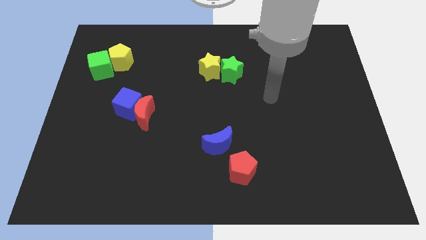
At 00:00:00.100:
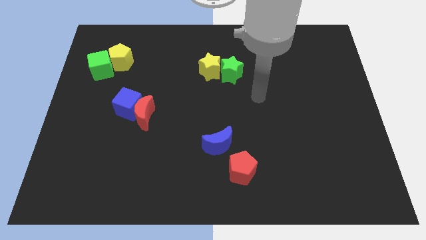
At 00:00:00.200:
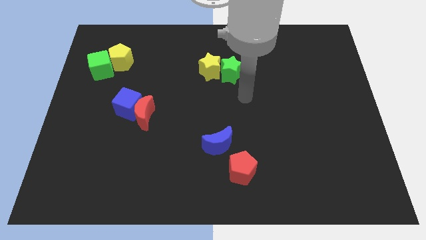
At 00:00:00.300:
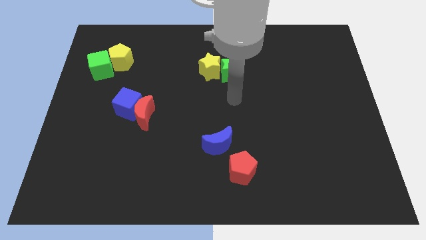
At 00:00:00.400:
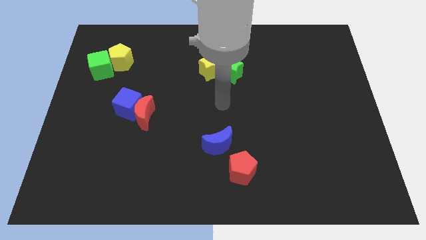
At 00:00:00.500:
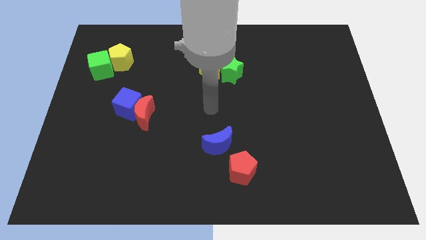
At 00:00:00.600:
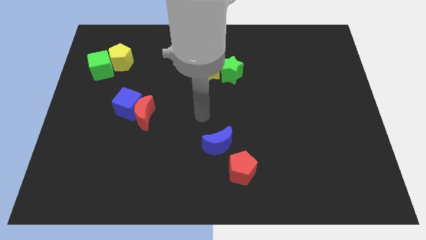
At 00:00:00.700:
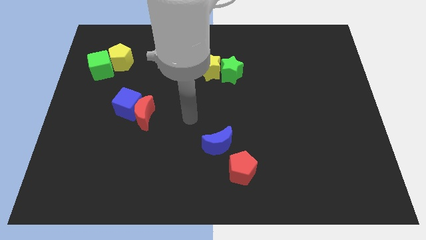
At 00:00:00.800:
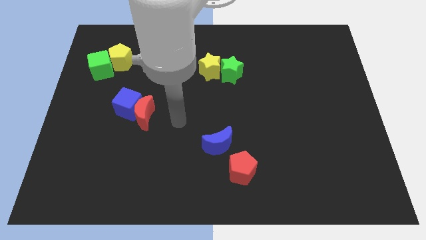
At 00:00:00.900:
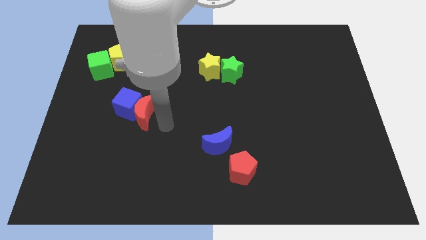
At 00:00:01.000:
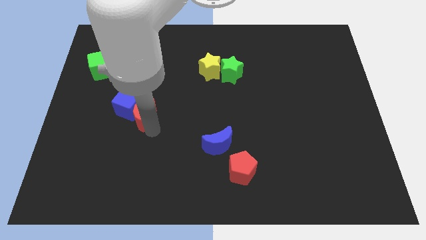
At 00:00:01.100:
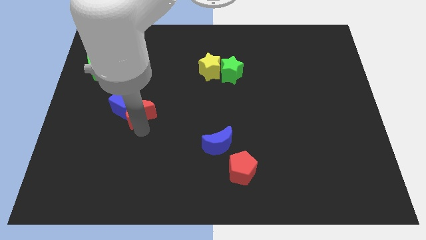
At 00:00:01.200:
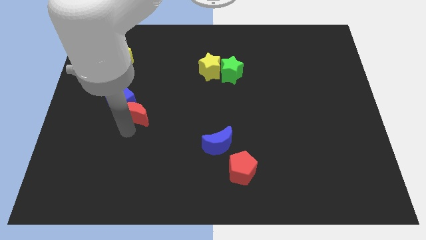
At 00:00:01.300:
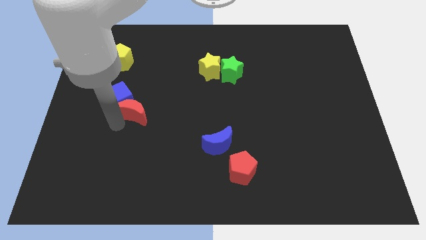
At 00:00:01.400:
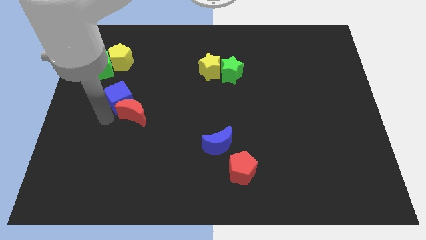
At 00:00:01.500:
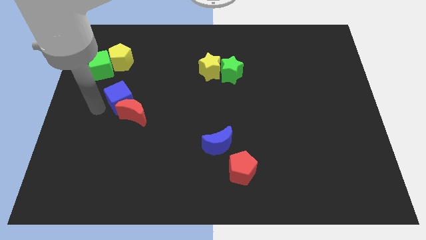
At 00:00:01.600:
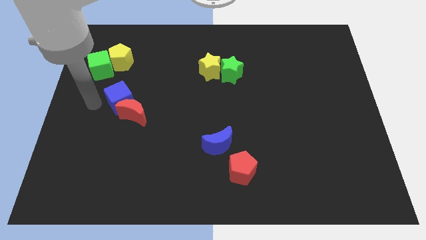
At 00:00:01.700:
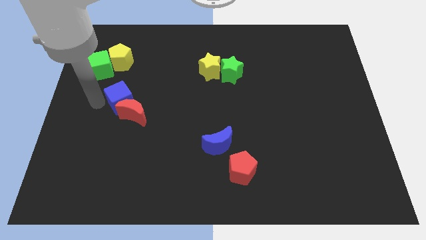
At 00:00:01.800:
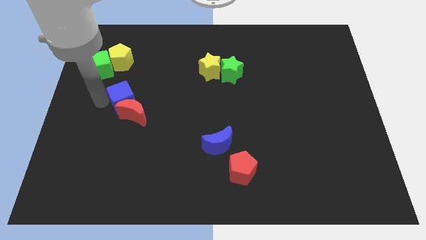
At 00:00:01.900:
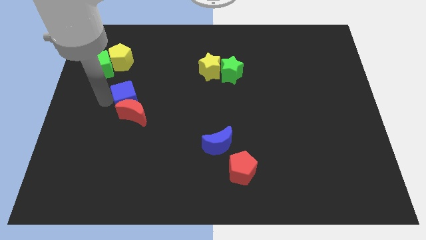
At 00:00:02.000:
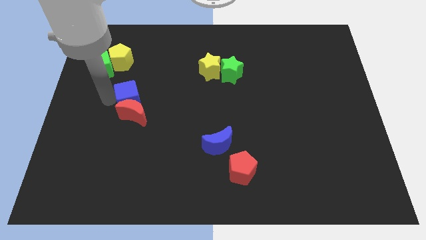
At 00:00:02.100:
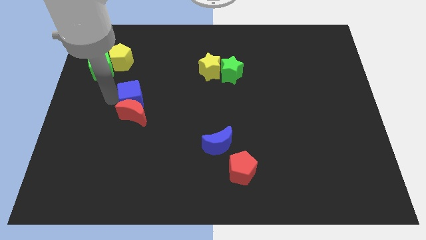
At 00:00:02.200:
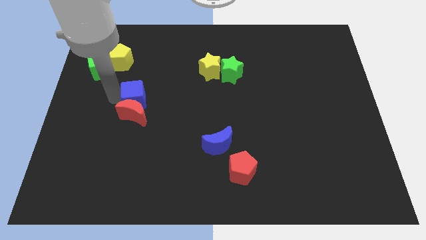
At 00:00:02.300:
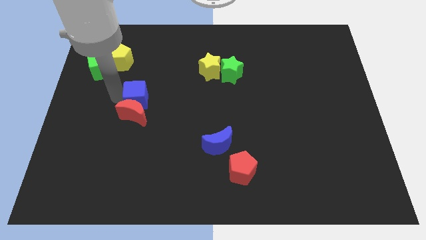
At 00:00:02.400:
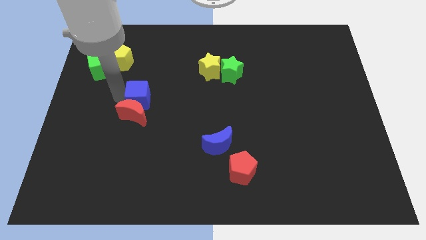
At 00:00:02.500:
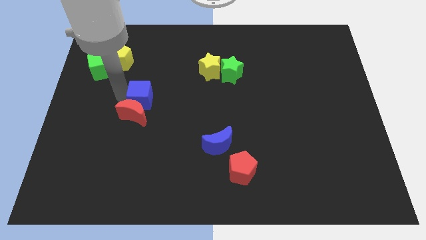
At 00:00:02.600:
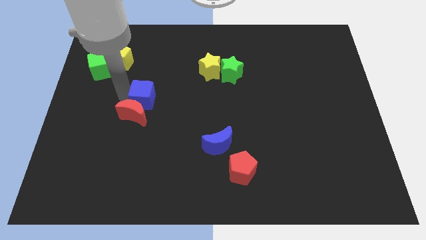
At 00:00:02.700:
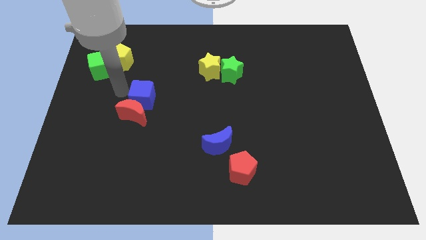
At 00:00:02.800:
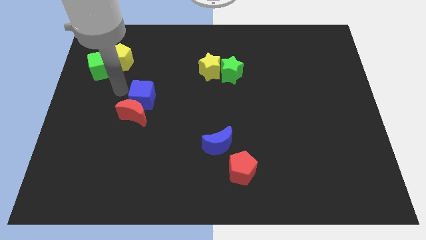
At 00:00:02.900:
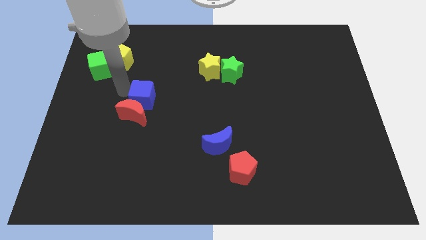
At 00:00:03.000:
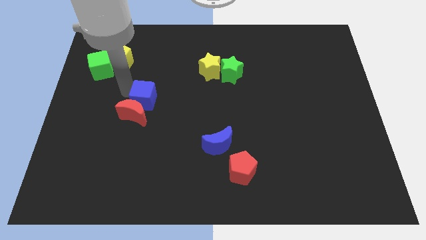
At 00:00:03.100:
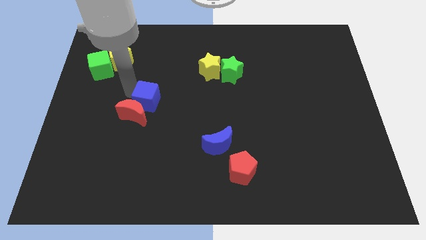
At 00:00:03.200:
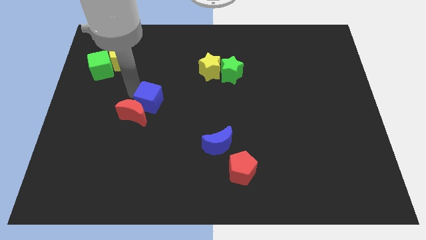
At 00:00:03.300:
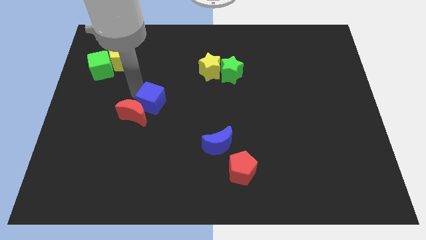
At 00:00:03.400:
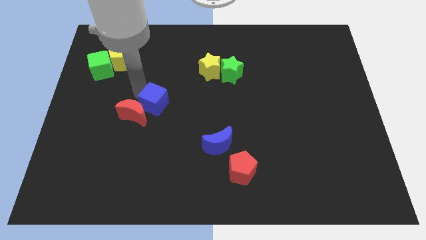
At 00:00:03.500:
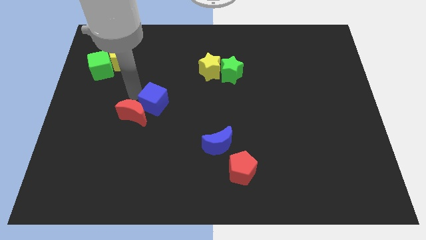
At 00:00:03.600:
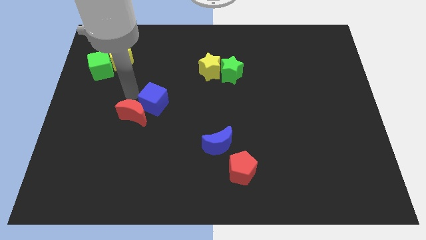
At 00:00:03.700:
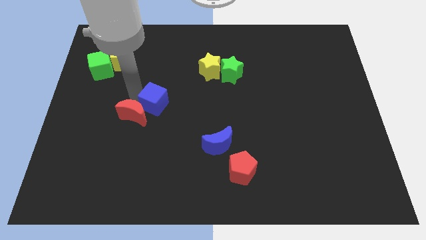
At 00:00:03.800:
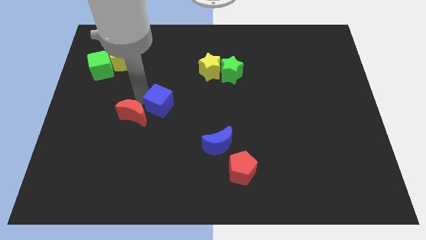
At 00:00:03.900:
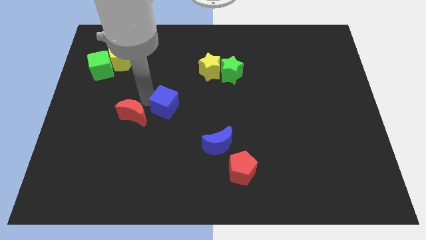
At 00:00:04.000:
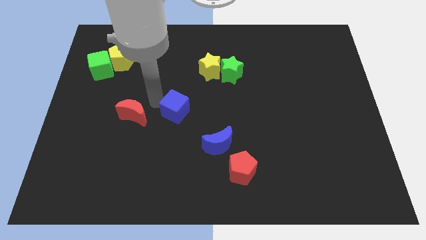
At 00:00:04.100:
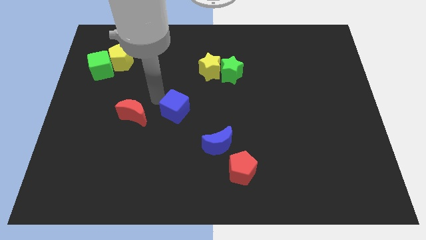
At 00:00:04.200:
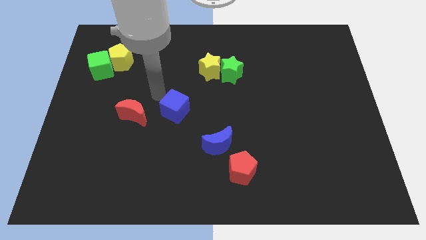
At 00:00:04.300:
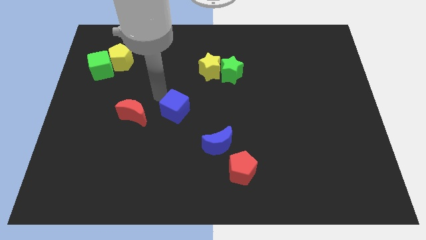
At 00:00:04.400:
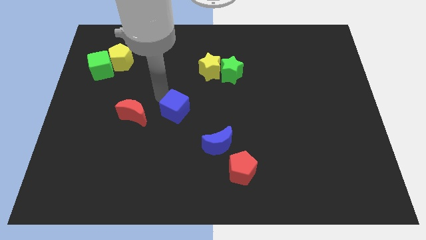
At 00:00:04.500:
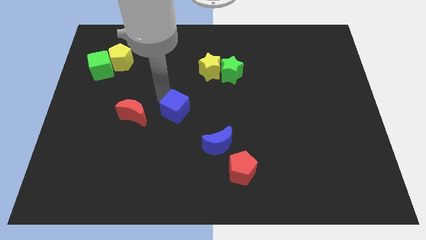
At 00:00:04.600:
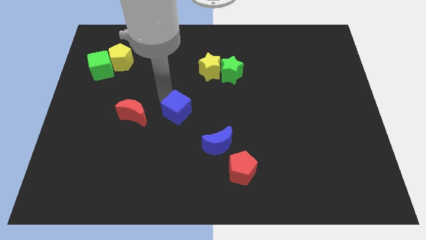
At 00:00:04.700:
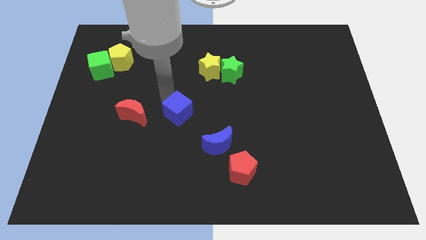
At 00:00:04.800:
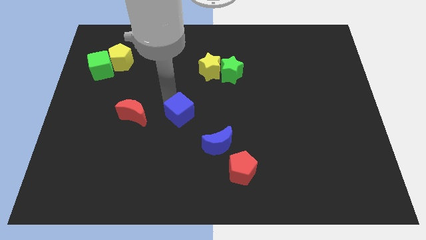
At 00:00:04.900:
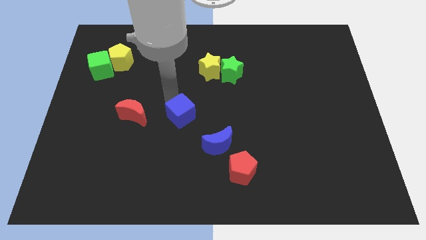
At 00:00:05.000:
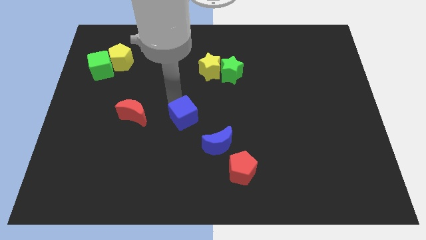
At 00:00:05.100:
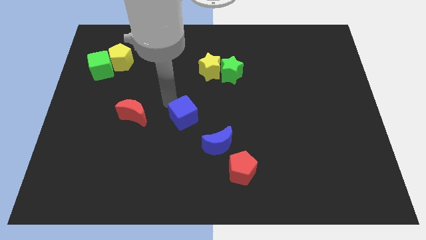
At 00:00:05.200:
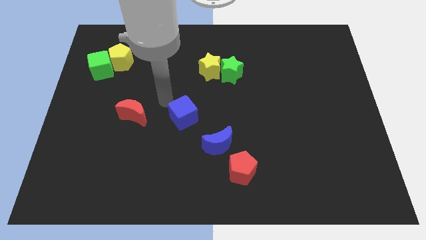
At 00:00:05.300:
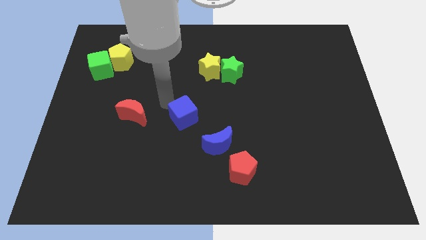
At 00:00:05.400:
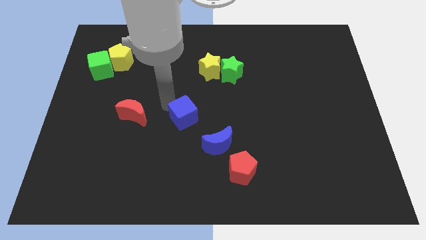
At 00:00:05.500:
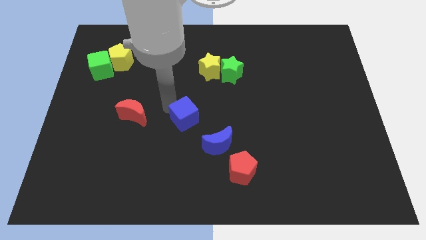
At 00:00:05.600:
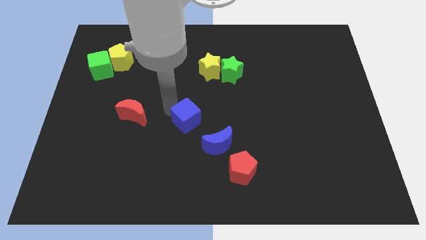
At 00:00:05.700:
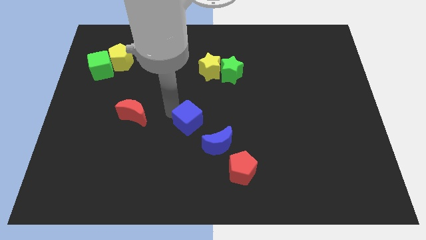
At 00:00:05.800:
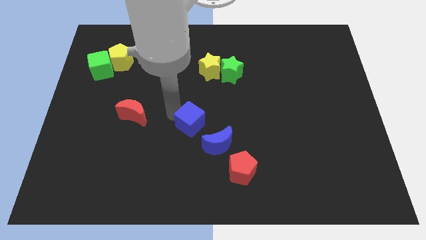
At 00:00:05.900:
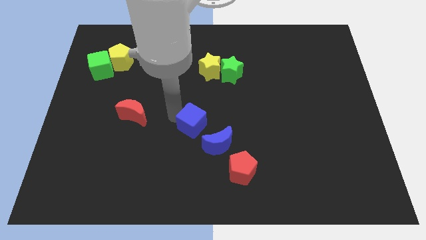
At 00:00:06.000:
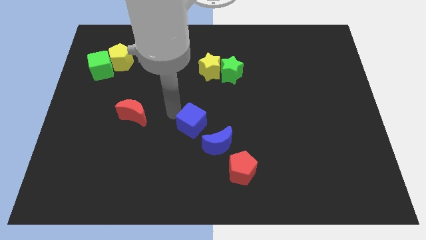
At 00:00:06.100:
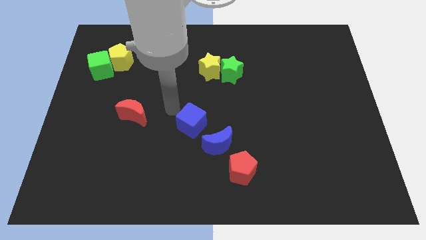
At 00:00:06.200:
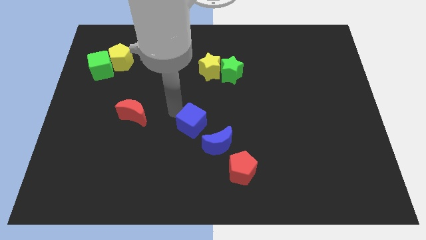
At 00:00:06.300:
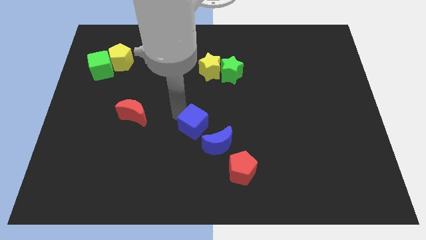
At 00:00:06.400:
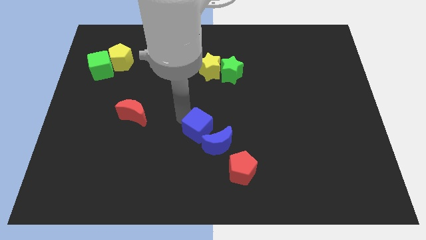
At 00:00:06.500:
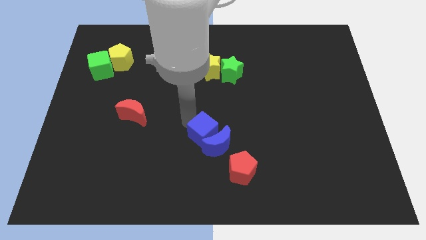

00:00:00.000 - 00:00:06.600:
push the blue cube close to the blue moon

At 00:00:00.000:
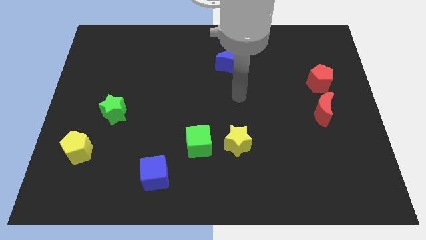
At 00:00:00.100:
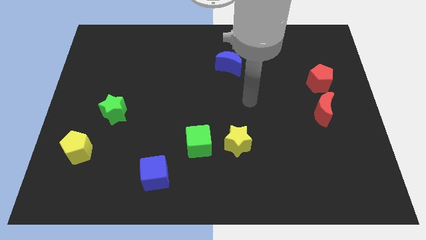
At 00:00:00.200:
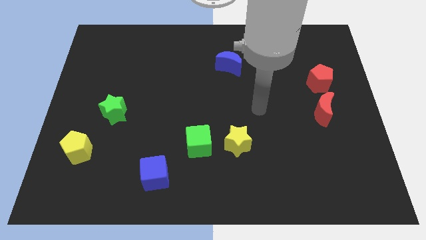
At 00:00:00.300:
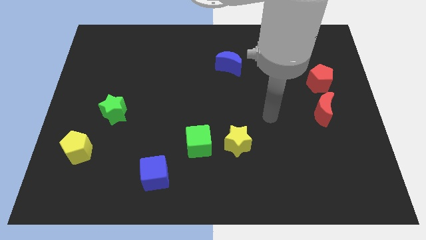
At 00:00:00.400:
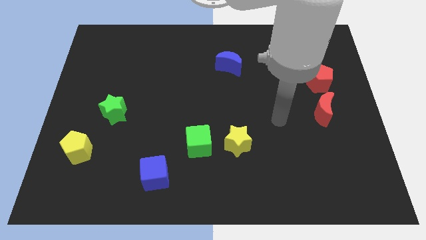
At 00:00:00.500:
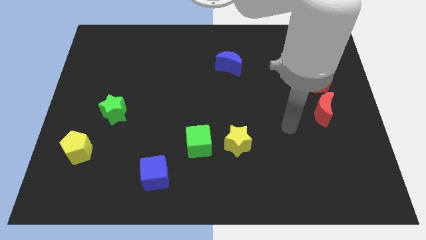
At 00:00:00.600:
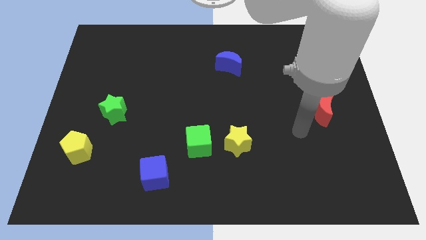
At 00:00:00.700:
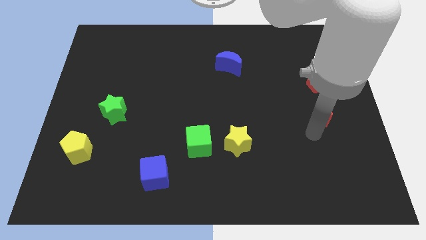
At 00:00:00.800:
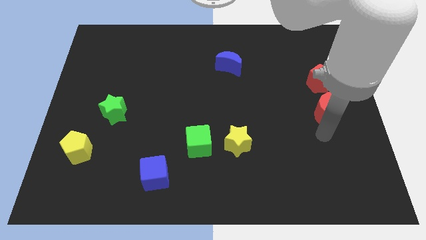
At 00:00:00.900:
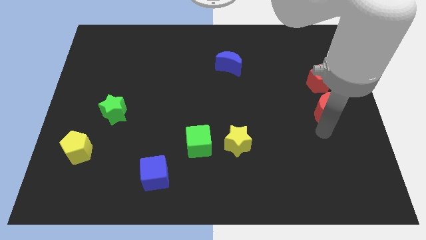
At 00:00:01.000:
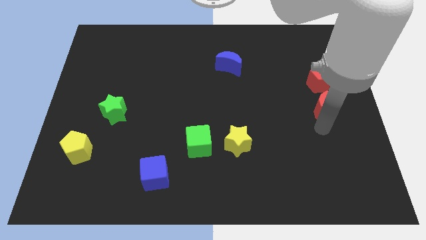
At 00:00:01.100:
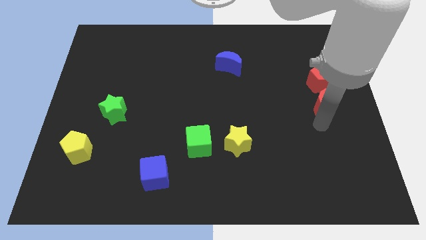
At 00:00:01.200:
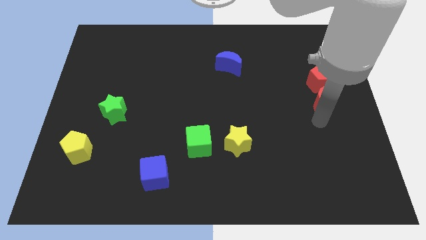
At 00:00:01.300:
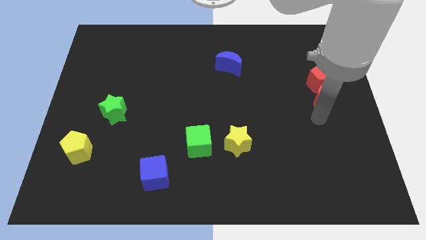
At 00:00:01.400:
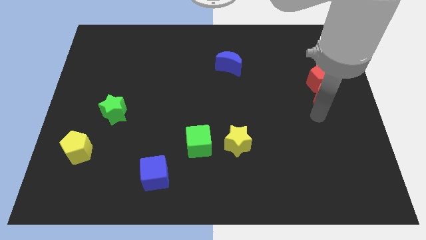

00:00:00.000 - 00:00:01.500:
slide the red moon close to the red pentagon
